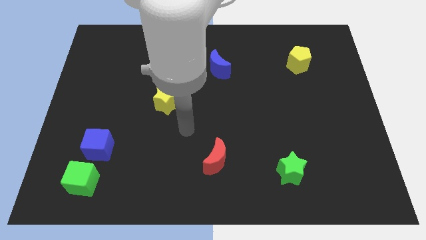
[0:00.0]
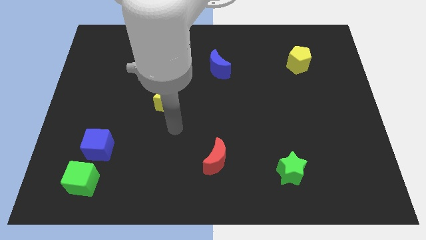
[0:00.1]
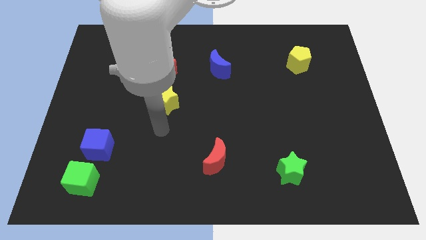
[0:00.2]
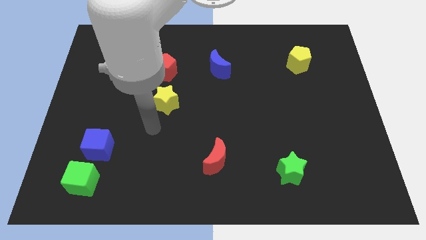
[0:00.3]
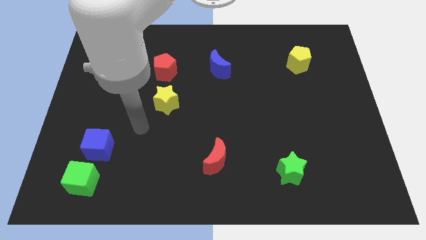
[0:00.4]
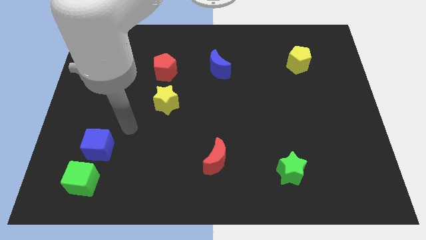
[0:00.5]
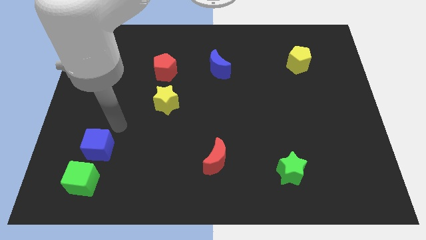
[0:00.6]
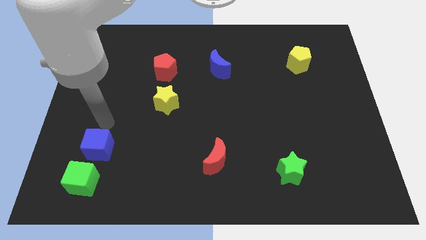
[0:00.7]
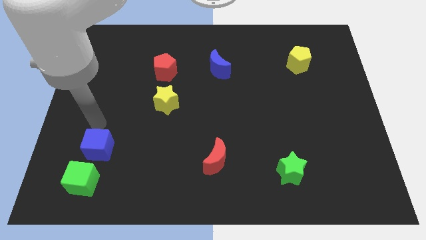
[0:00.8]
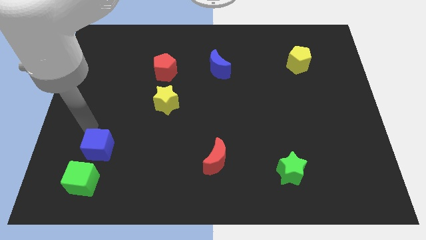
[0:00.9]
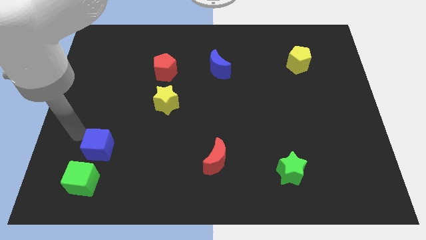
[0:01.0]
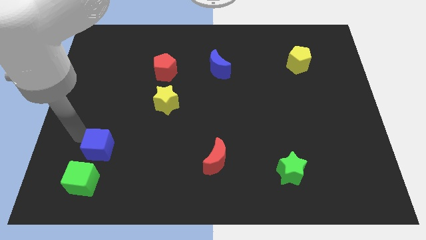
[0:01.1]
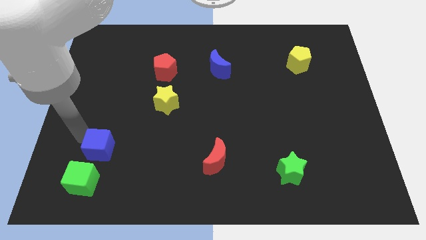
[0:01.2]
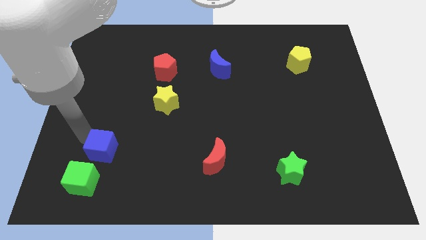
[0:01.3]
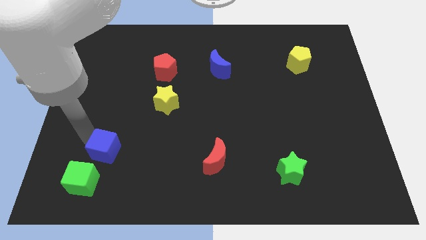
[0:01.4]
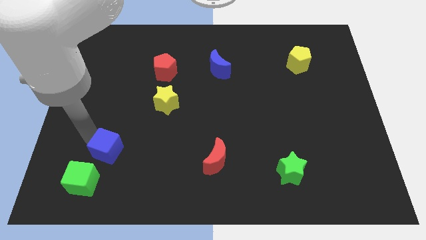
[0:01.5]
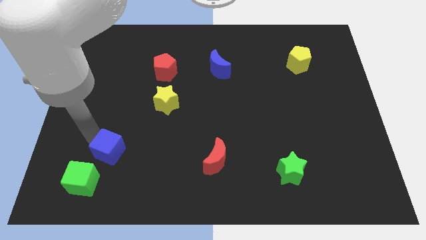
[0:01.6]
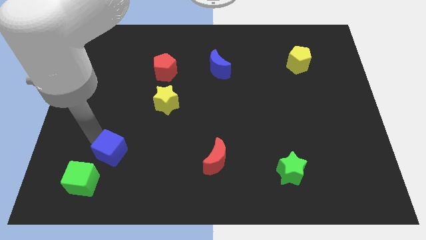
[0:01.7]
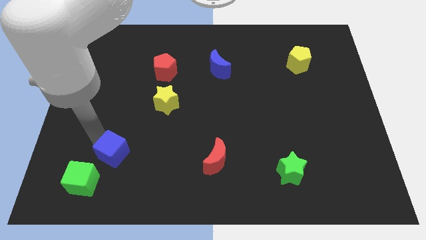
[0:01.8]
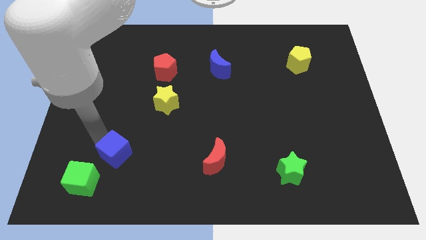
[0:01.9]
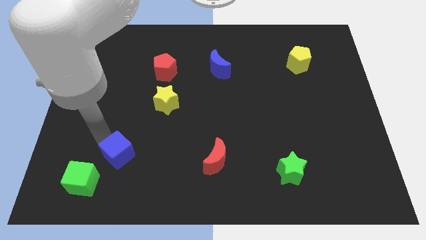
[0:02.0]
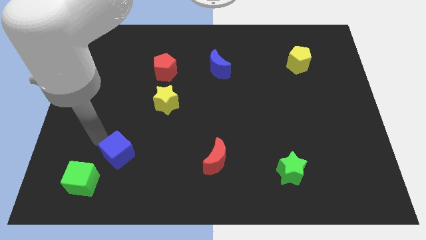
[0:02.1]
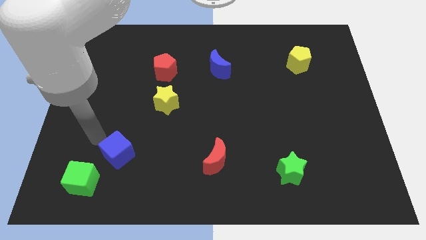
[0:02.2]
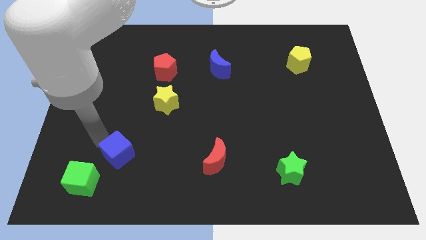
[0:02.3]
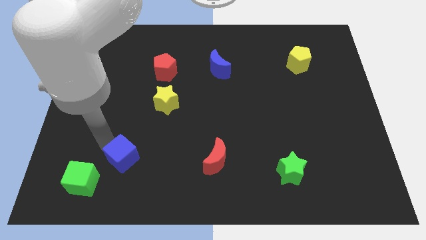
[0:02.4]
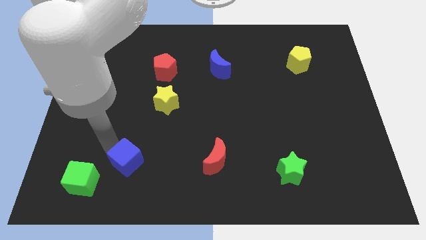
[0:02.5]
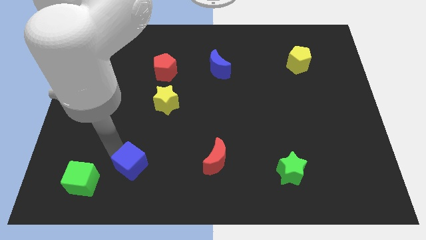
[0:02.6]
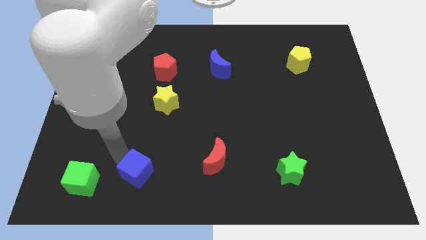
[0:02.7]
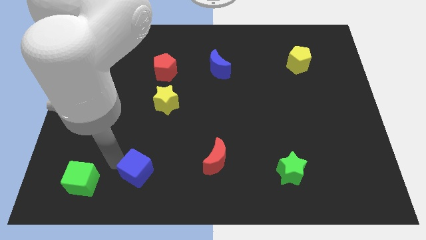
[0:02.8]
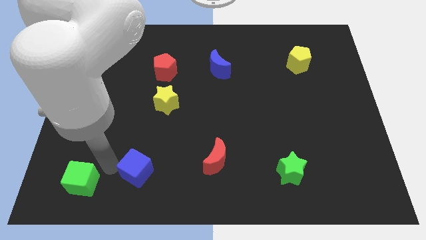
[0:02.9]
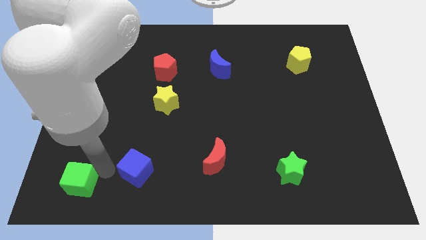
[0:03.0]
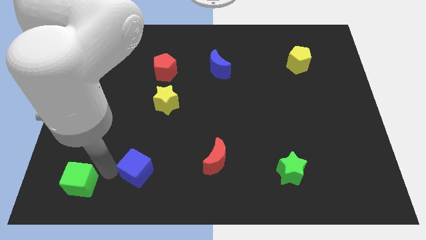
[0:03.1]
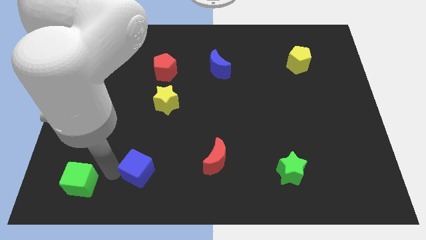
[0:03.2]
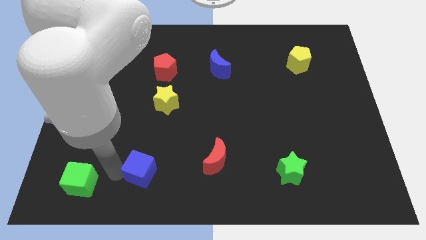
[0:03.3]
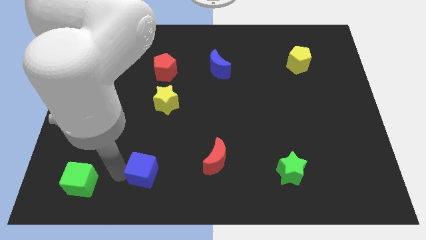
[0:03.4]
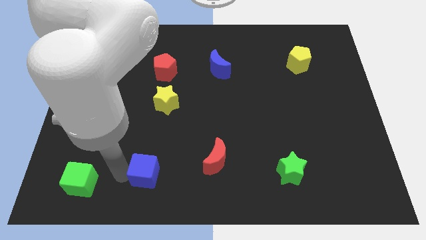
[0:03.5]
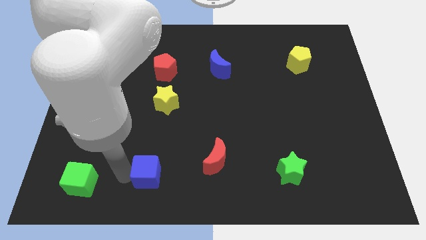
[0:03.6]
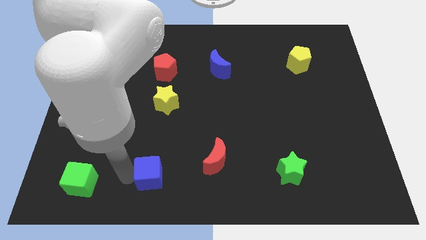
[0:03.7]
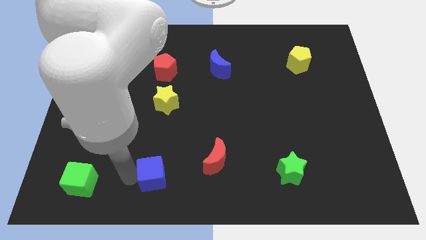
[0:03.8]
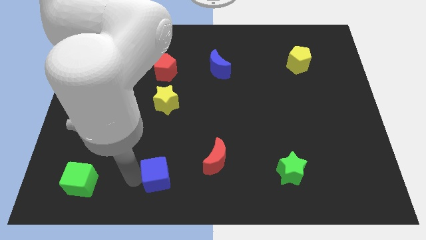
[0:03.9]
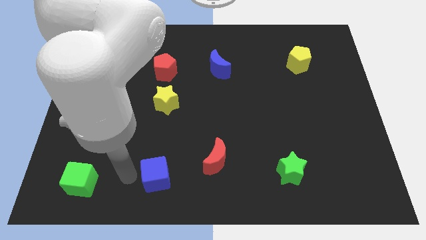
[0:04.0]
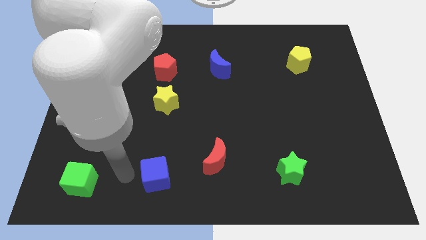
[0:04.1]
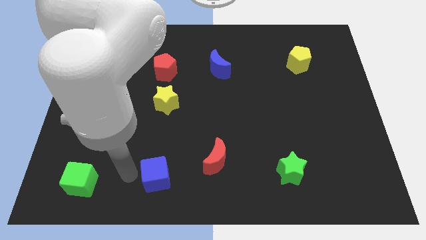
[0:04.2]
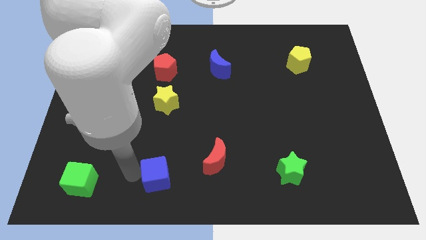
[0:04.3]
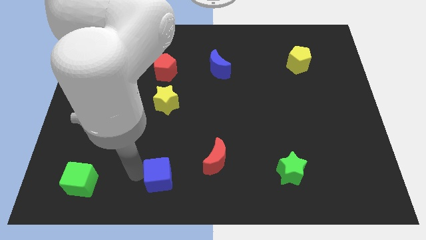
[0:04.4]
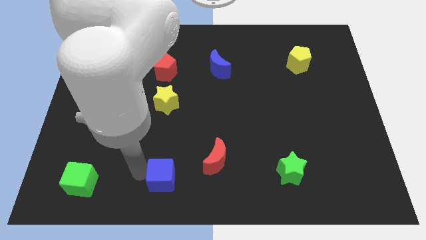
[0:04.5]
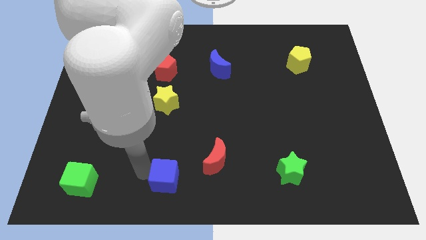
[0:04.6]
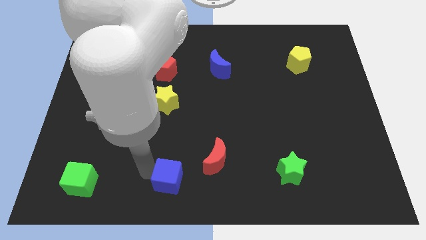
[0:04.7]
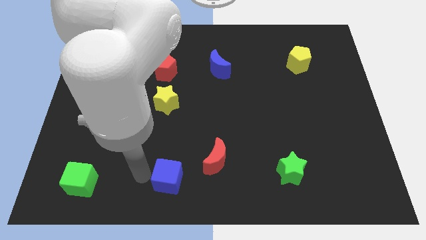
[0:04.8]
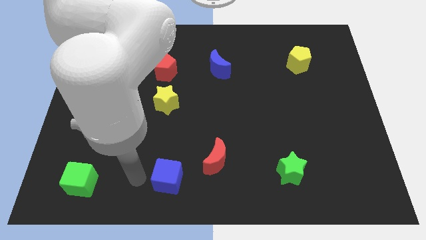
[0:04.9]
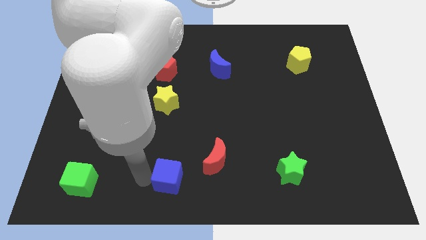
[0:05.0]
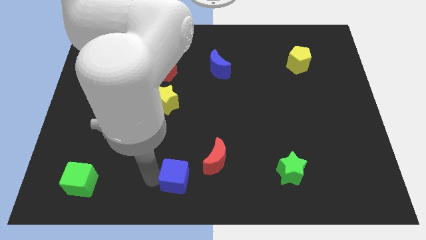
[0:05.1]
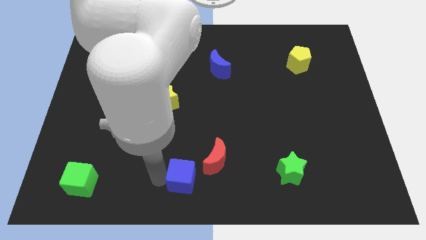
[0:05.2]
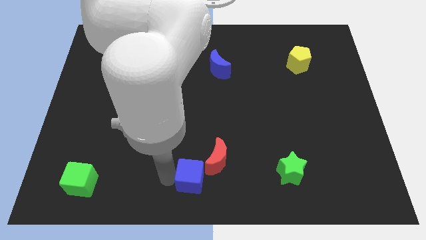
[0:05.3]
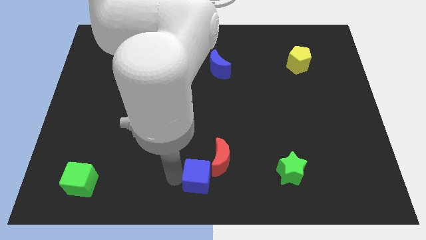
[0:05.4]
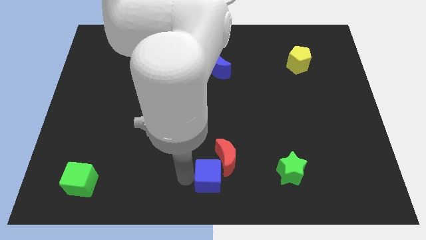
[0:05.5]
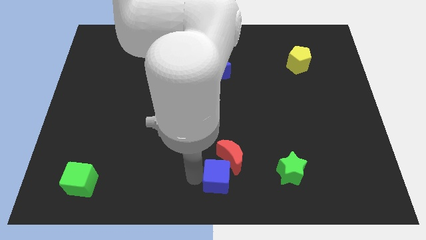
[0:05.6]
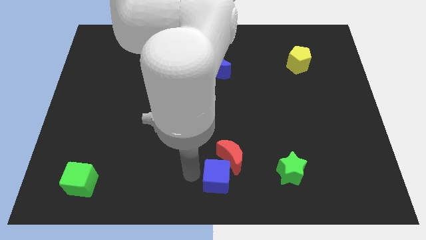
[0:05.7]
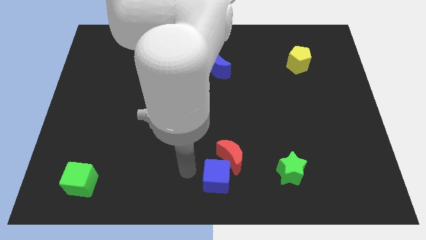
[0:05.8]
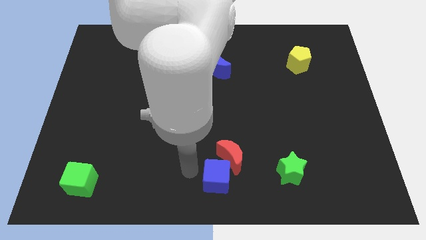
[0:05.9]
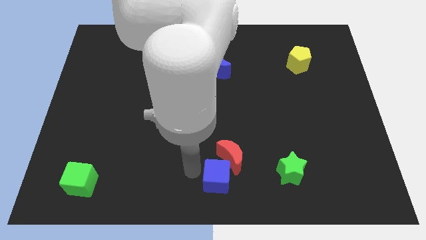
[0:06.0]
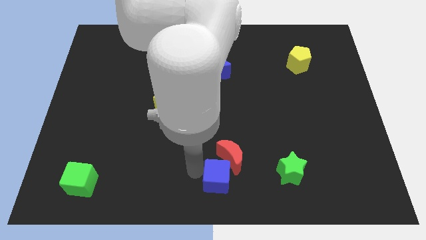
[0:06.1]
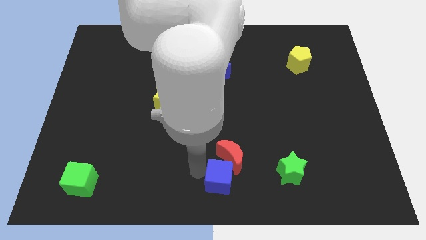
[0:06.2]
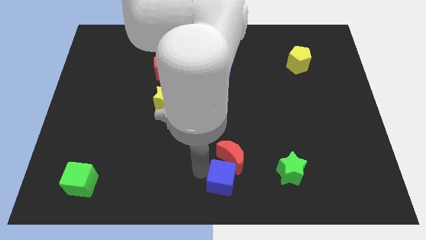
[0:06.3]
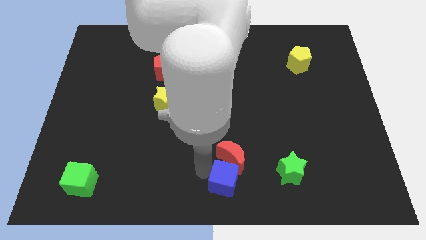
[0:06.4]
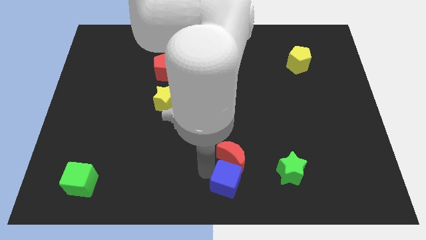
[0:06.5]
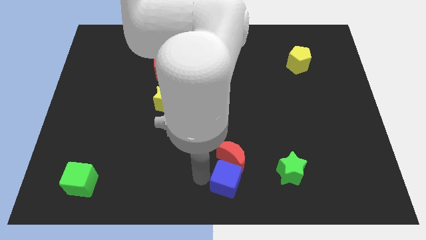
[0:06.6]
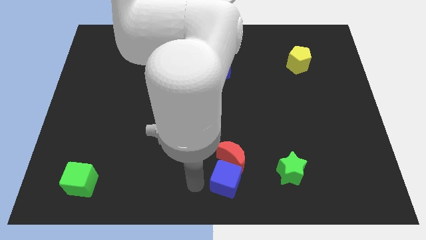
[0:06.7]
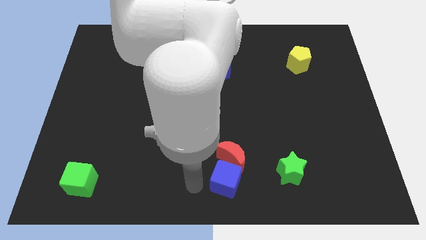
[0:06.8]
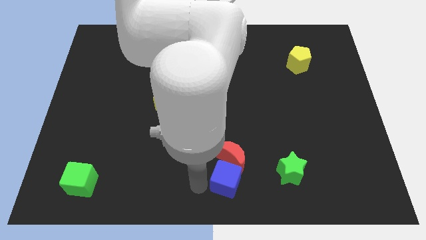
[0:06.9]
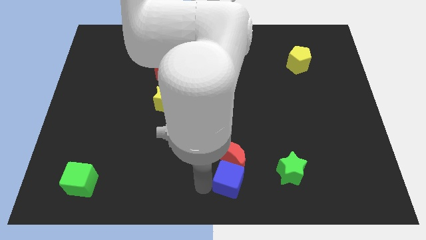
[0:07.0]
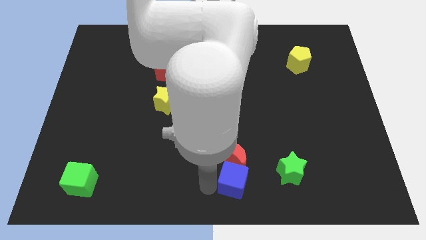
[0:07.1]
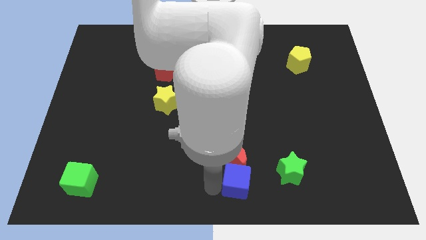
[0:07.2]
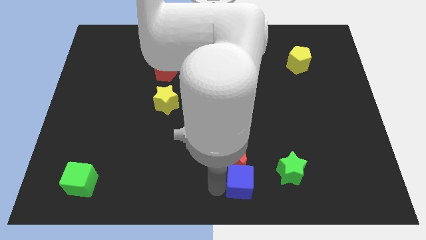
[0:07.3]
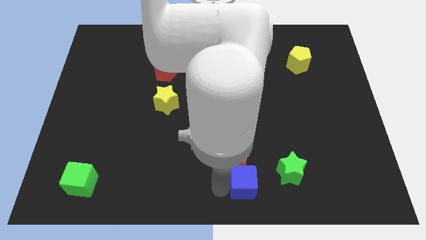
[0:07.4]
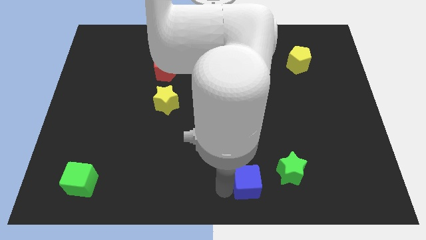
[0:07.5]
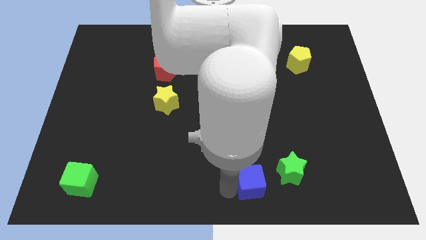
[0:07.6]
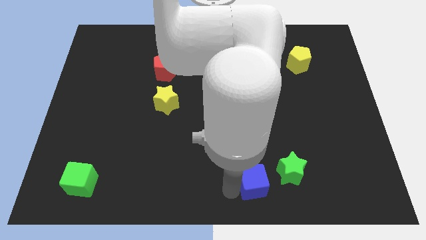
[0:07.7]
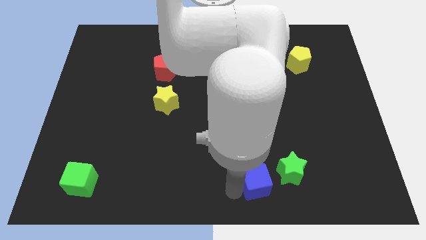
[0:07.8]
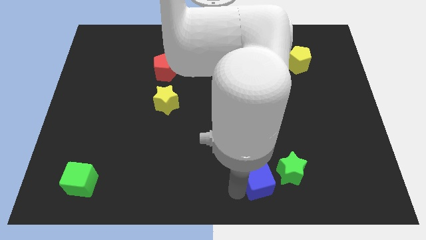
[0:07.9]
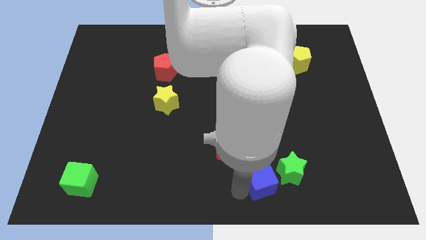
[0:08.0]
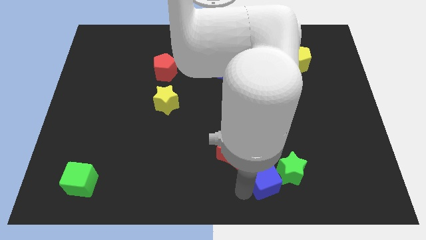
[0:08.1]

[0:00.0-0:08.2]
push the blue cube close to the green star

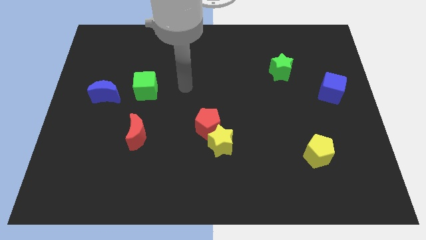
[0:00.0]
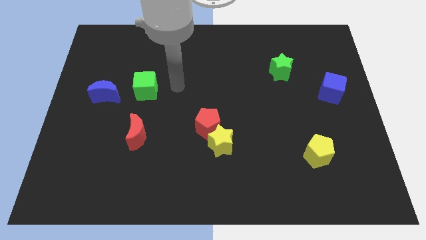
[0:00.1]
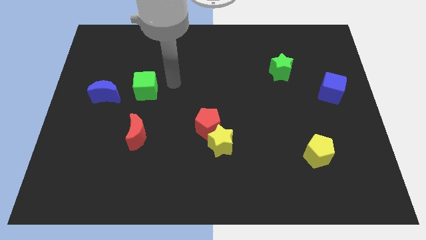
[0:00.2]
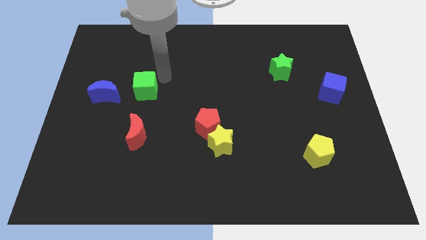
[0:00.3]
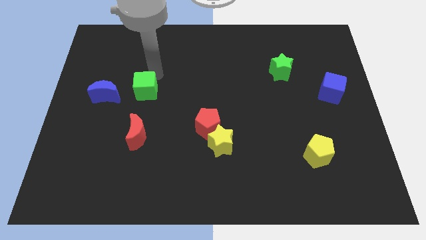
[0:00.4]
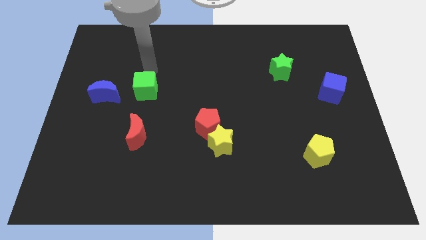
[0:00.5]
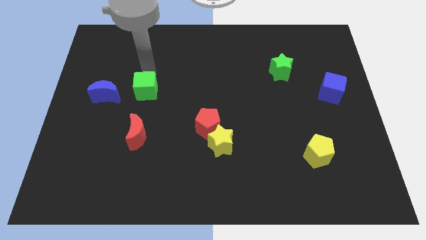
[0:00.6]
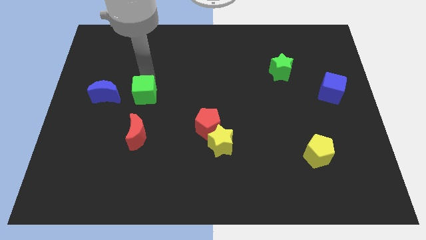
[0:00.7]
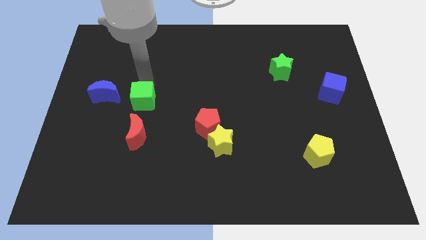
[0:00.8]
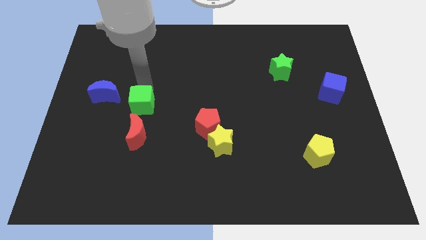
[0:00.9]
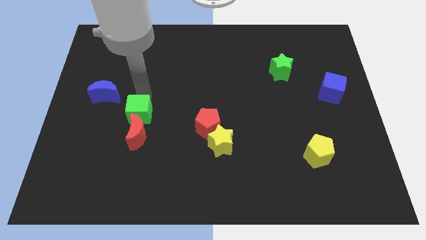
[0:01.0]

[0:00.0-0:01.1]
slide the green cube close to the red moon
